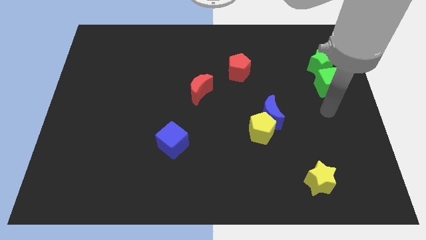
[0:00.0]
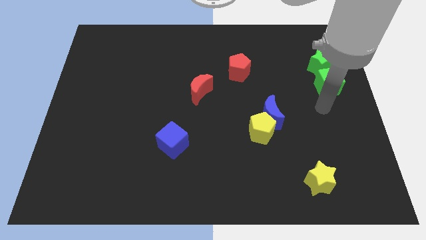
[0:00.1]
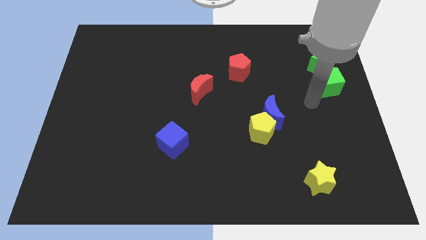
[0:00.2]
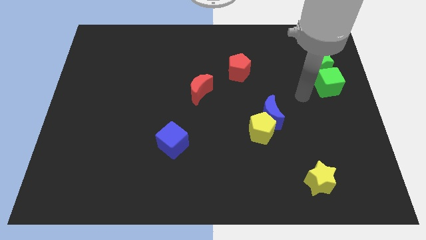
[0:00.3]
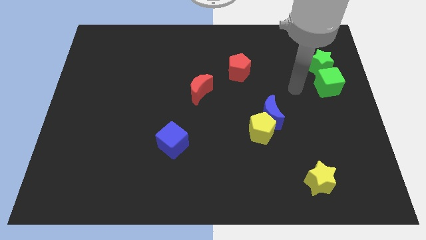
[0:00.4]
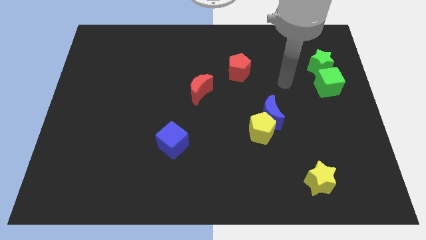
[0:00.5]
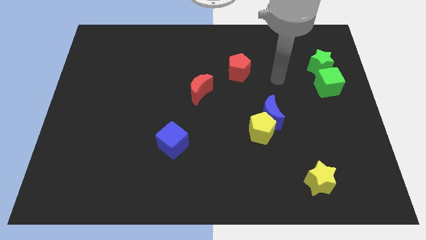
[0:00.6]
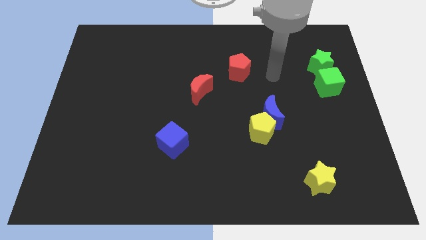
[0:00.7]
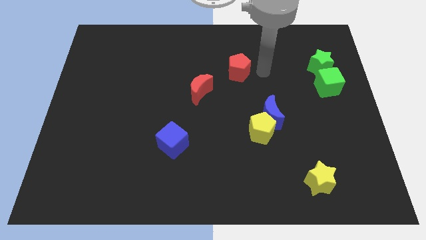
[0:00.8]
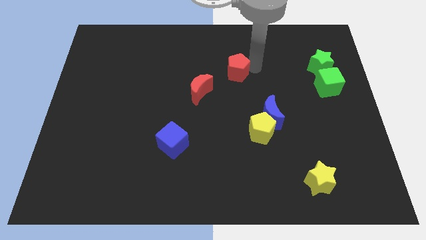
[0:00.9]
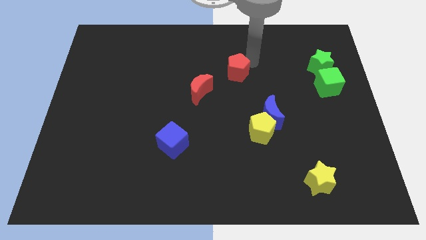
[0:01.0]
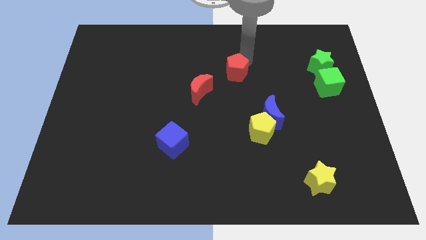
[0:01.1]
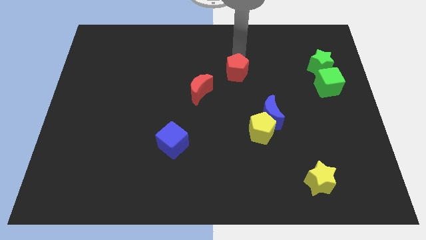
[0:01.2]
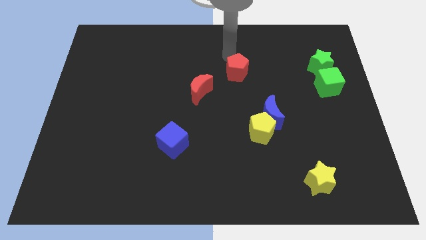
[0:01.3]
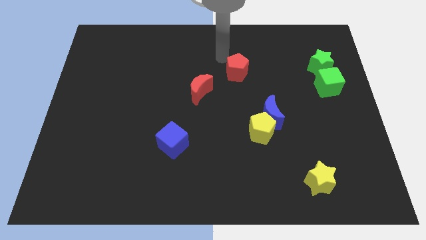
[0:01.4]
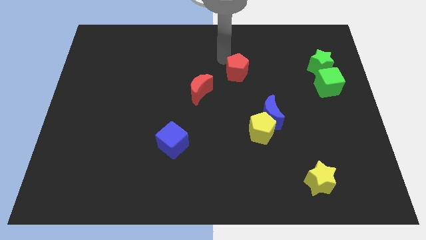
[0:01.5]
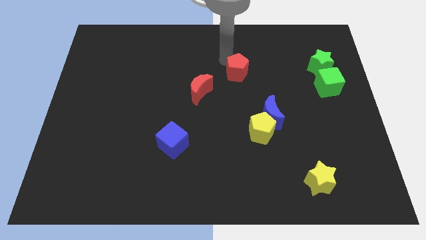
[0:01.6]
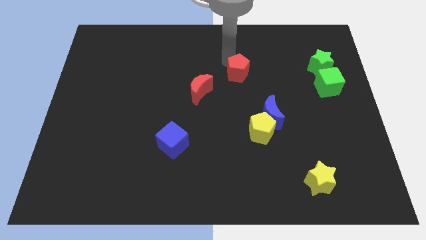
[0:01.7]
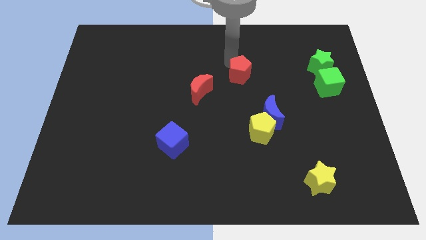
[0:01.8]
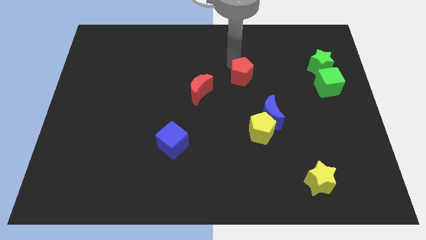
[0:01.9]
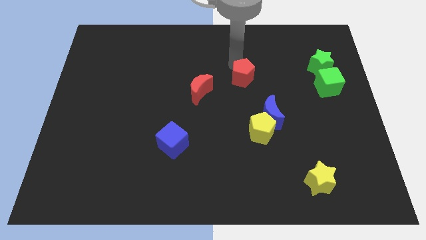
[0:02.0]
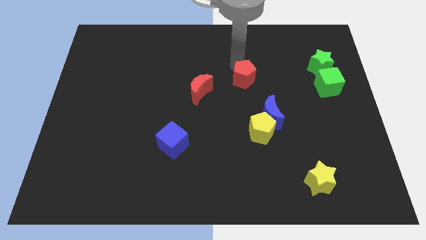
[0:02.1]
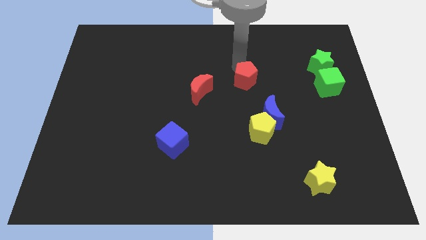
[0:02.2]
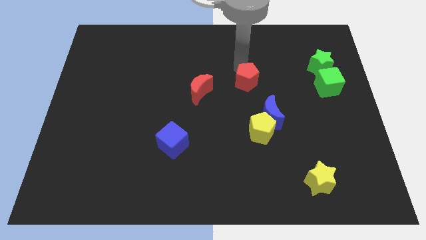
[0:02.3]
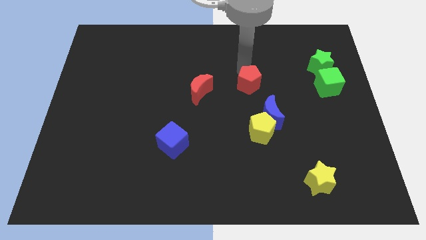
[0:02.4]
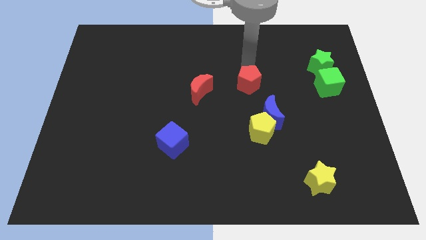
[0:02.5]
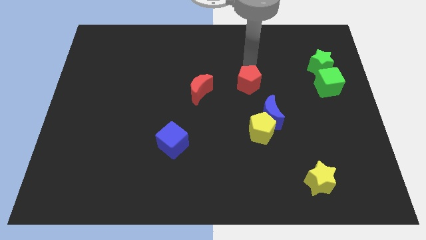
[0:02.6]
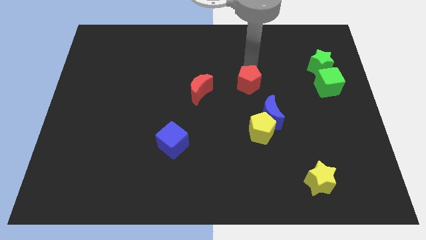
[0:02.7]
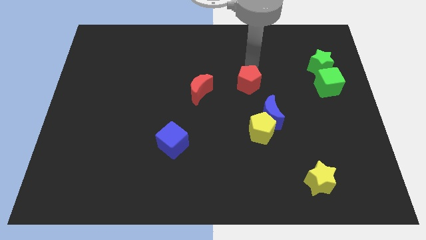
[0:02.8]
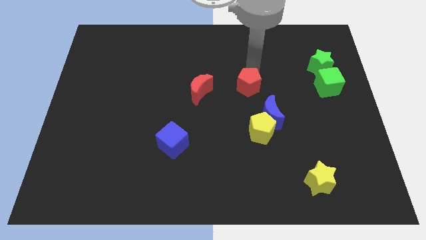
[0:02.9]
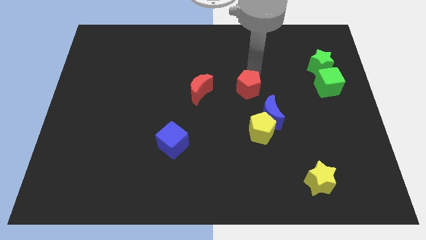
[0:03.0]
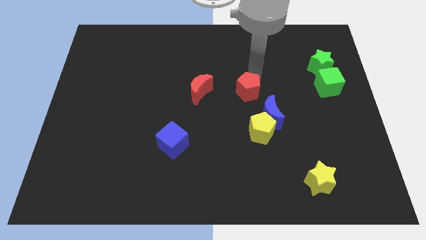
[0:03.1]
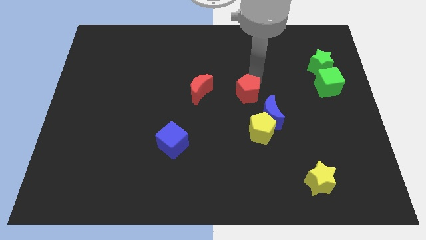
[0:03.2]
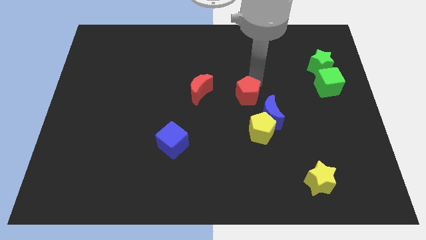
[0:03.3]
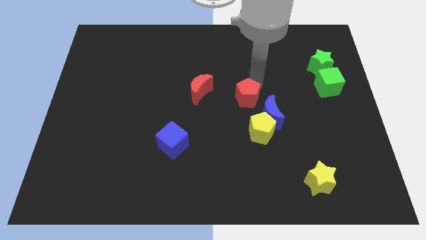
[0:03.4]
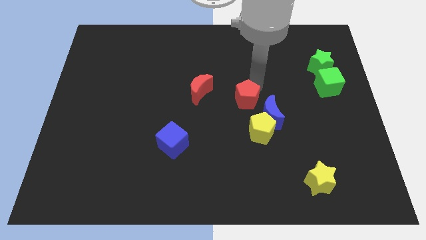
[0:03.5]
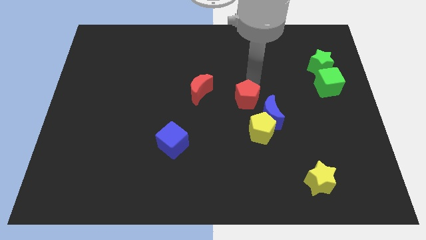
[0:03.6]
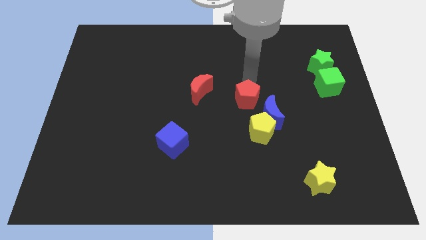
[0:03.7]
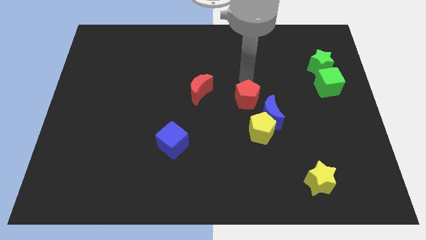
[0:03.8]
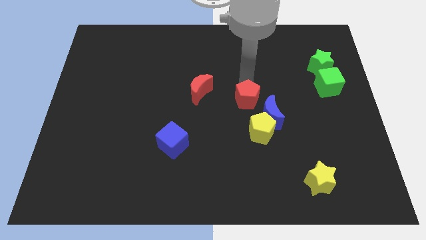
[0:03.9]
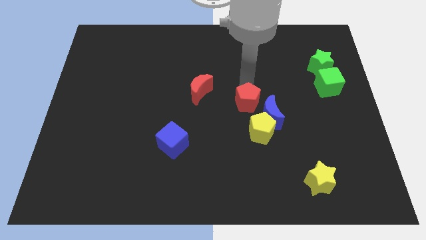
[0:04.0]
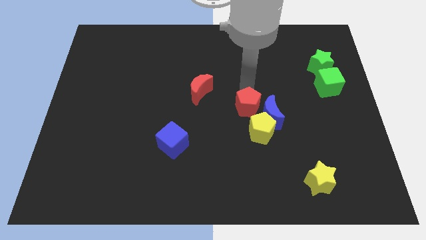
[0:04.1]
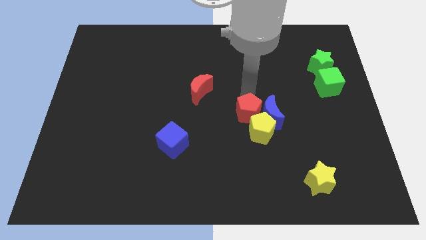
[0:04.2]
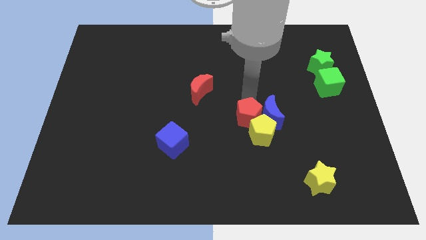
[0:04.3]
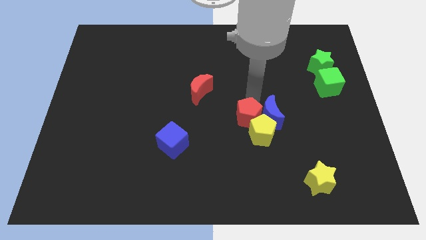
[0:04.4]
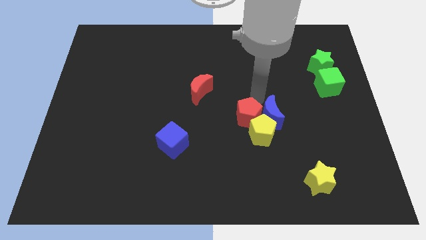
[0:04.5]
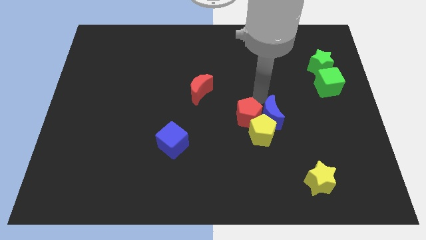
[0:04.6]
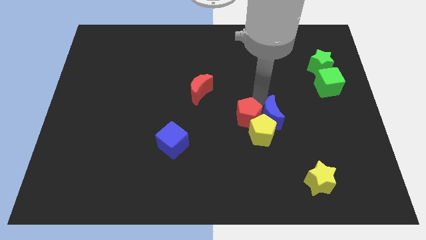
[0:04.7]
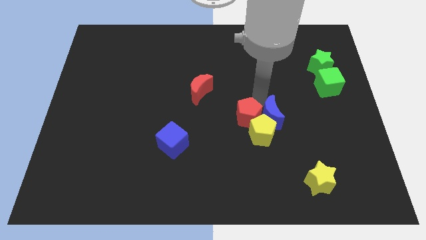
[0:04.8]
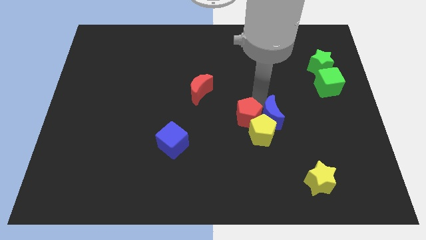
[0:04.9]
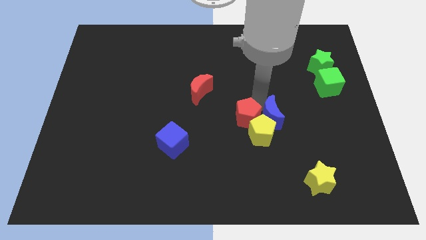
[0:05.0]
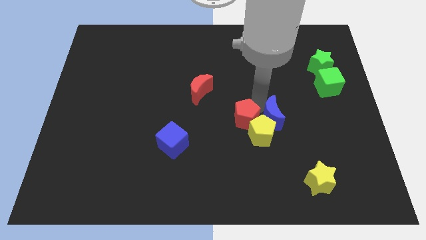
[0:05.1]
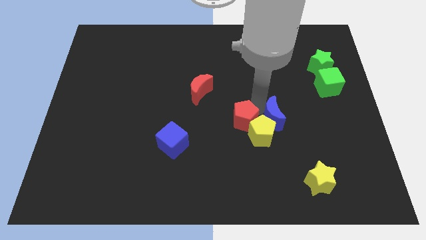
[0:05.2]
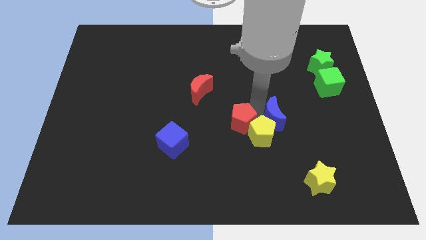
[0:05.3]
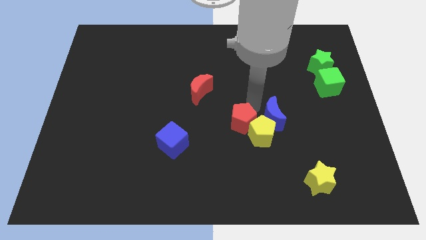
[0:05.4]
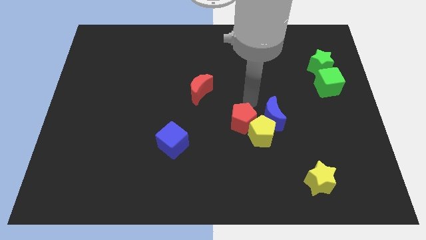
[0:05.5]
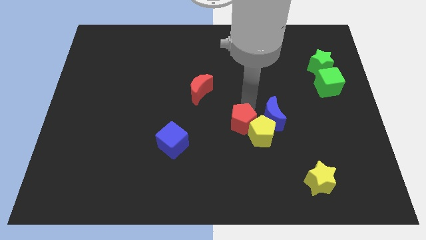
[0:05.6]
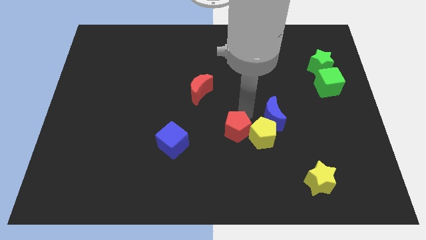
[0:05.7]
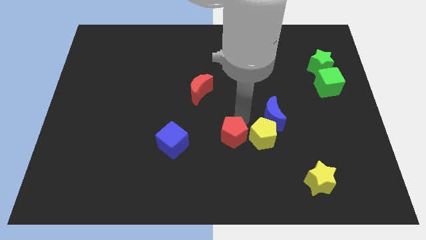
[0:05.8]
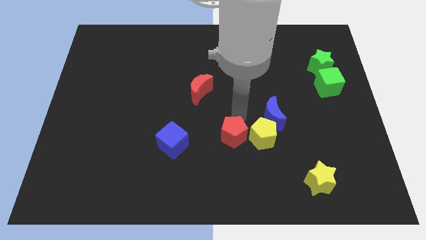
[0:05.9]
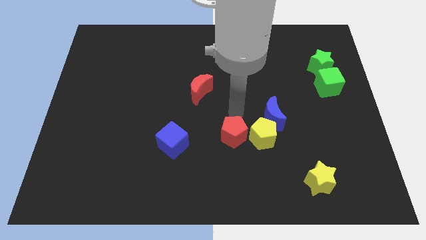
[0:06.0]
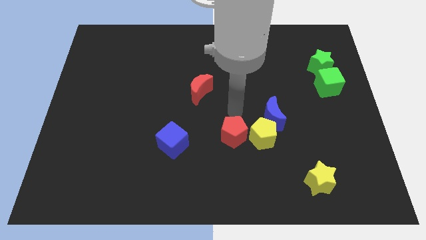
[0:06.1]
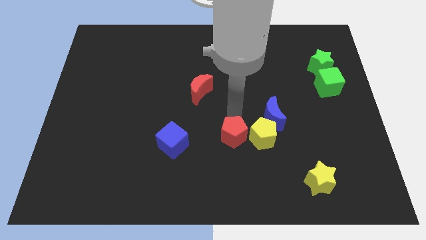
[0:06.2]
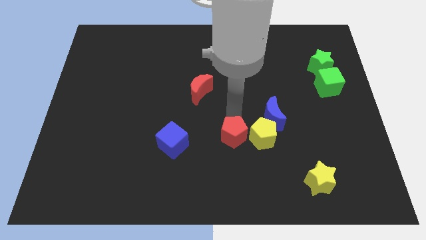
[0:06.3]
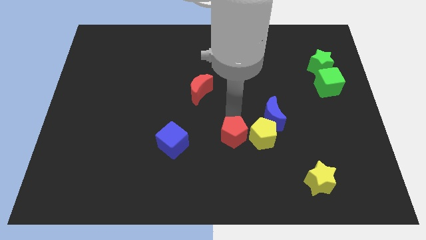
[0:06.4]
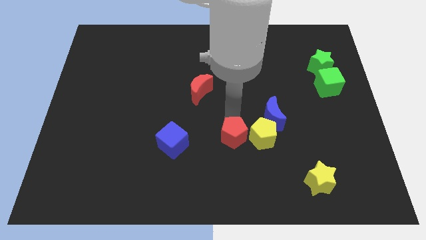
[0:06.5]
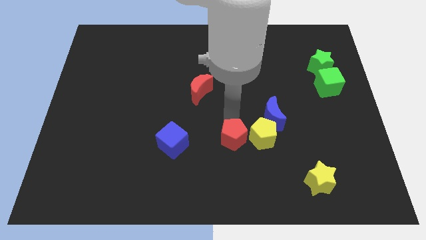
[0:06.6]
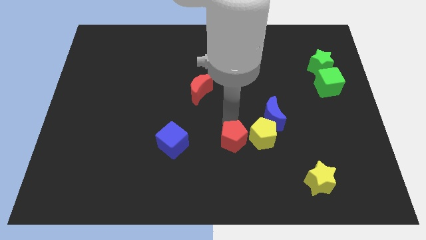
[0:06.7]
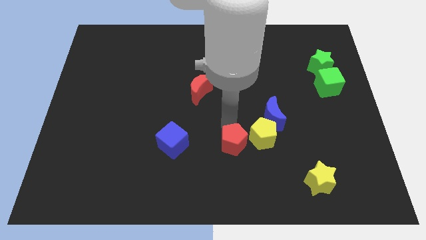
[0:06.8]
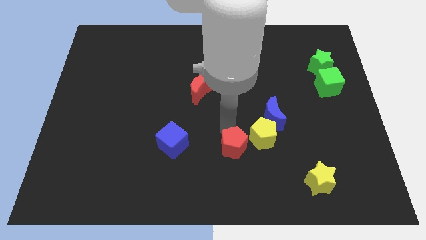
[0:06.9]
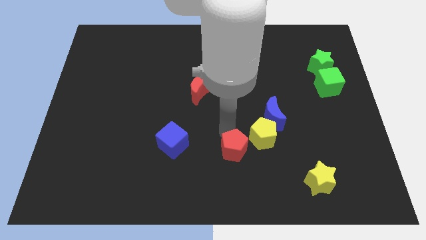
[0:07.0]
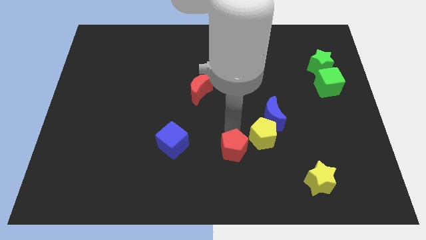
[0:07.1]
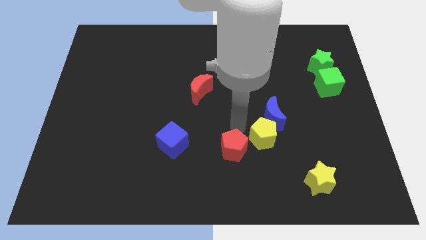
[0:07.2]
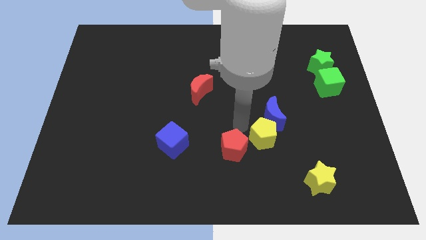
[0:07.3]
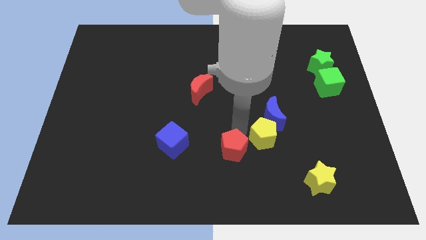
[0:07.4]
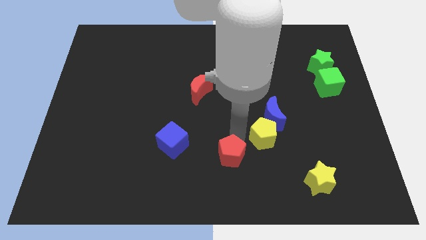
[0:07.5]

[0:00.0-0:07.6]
move the red pentagon to the bottom side
